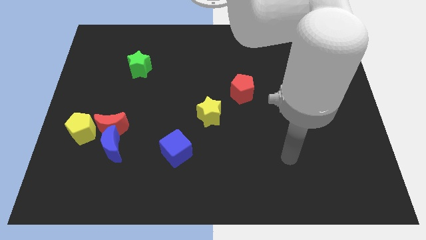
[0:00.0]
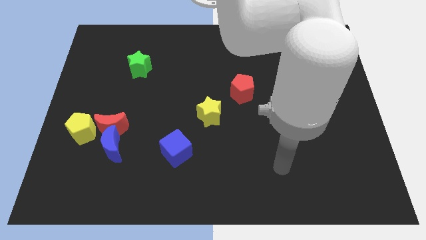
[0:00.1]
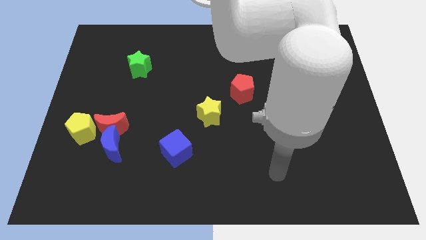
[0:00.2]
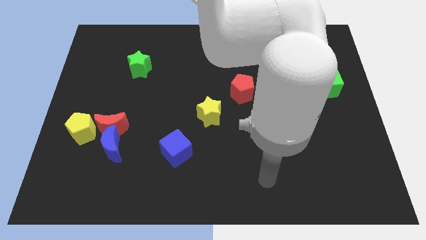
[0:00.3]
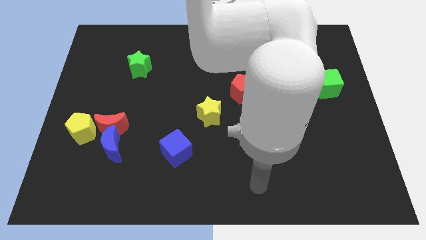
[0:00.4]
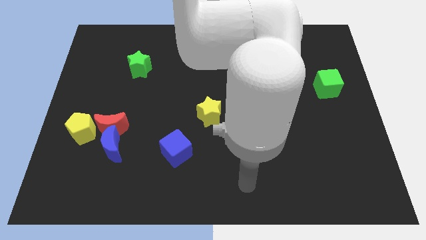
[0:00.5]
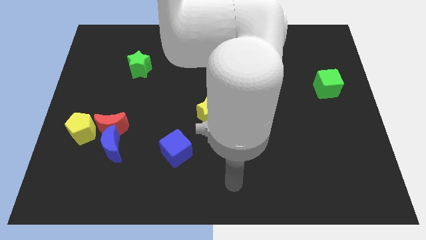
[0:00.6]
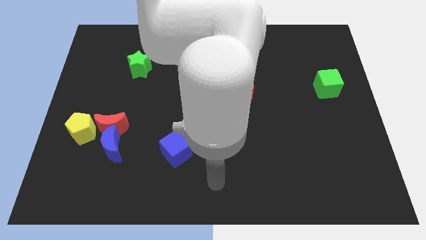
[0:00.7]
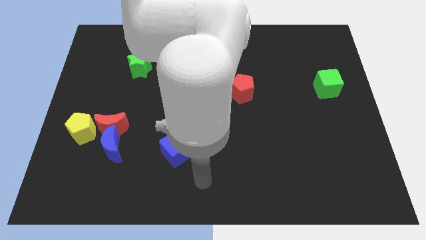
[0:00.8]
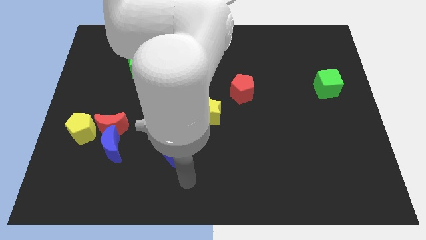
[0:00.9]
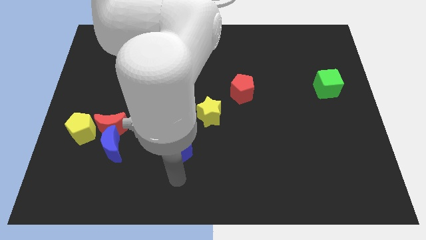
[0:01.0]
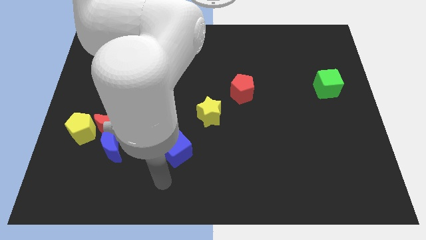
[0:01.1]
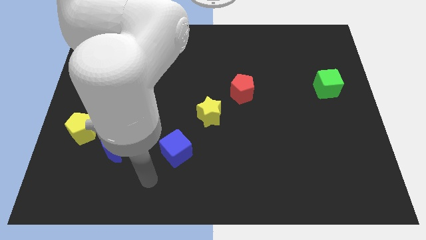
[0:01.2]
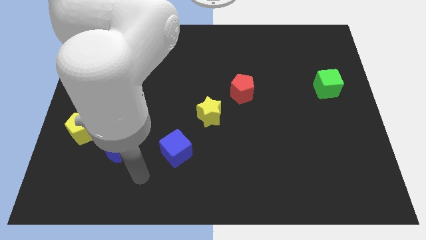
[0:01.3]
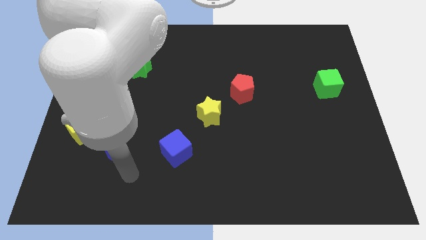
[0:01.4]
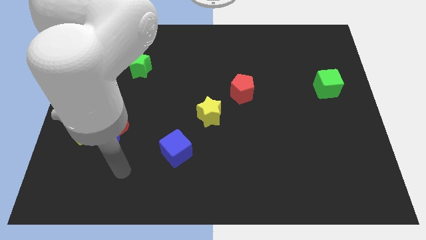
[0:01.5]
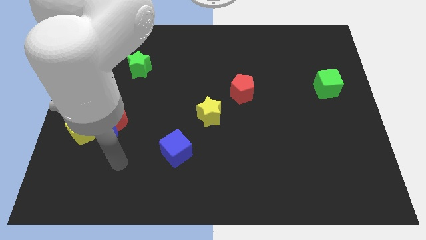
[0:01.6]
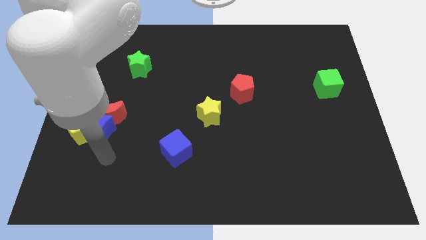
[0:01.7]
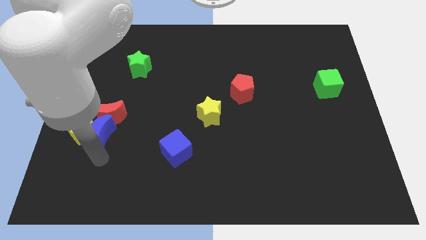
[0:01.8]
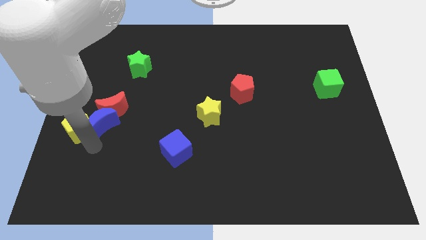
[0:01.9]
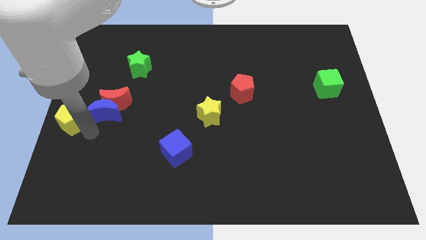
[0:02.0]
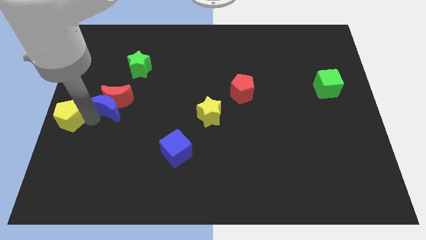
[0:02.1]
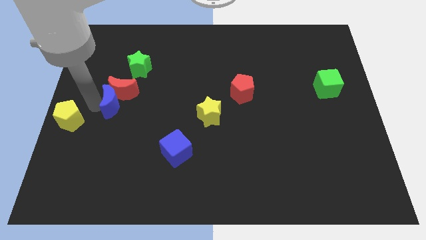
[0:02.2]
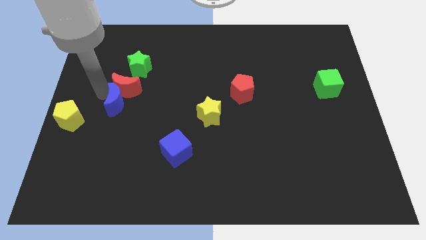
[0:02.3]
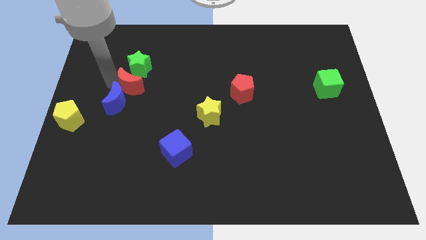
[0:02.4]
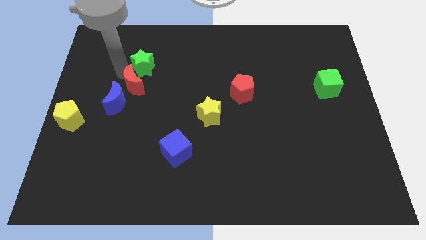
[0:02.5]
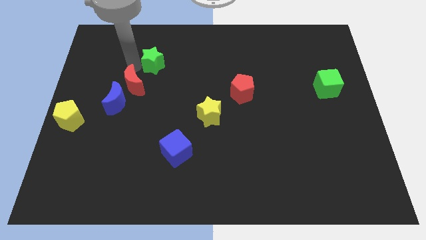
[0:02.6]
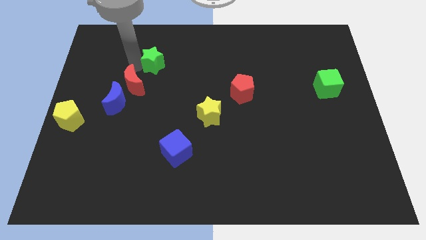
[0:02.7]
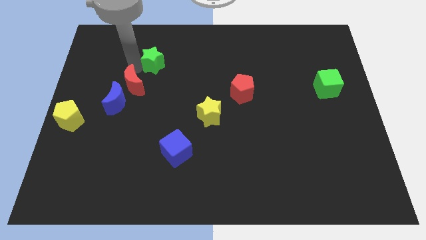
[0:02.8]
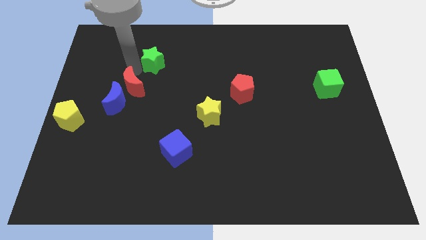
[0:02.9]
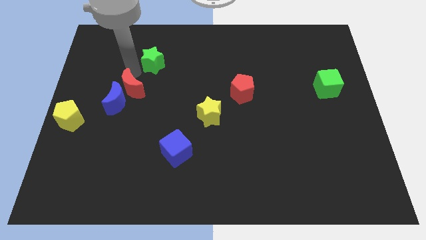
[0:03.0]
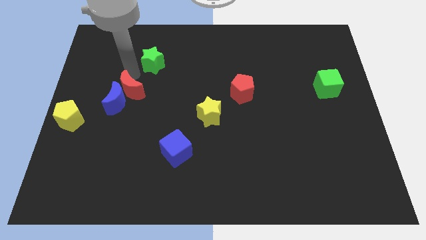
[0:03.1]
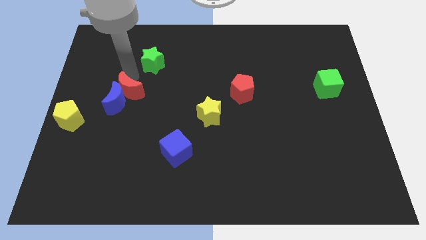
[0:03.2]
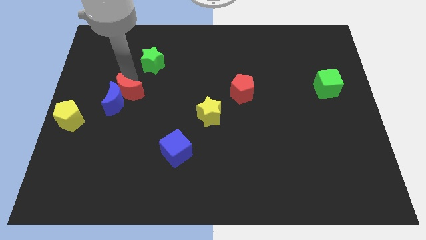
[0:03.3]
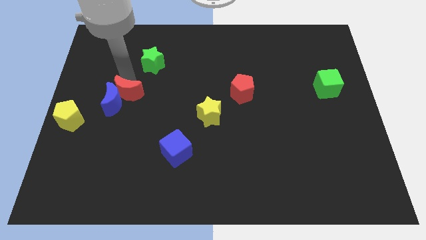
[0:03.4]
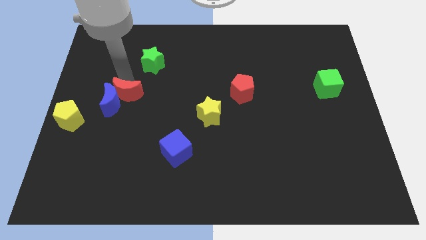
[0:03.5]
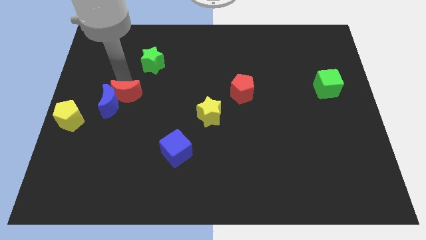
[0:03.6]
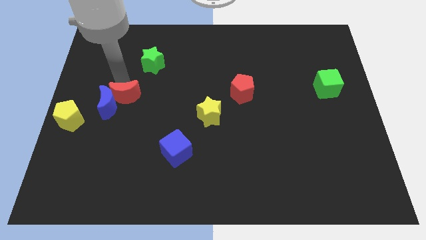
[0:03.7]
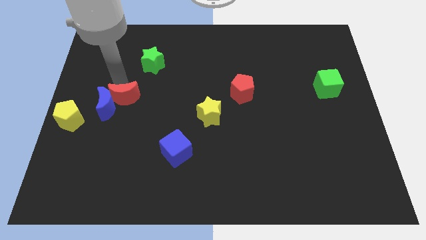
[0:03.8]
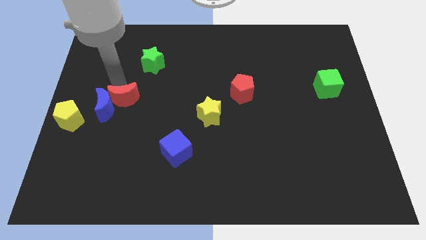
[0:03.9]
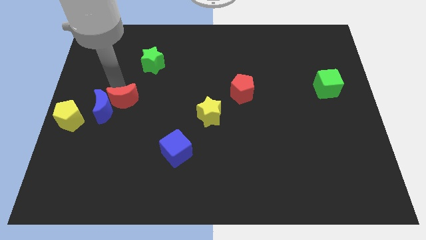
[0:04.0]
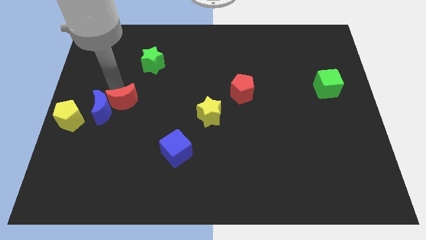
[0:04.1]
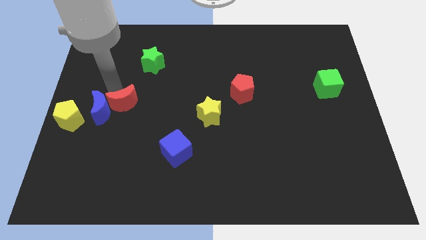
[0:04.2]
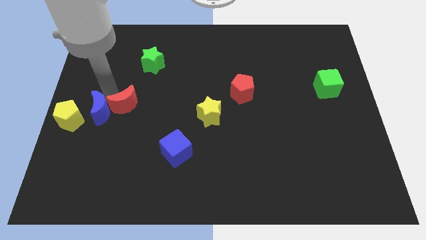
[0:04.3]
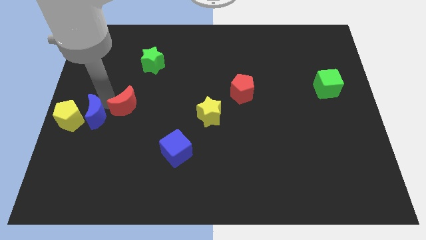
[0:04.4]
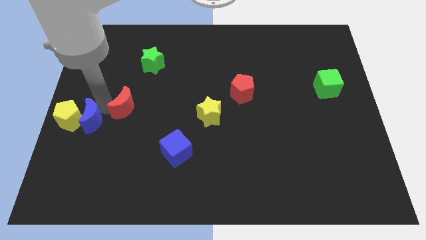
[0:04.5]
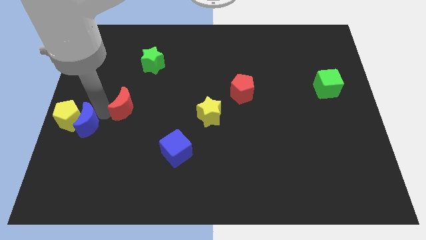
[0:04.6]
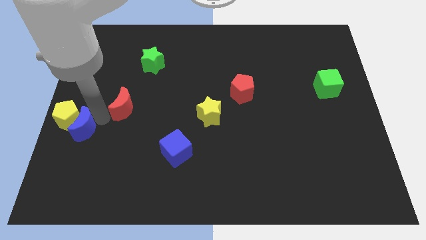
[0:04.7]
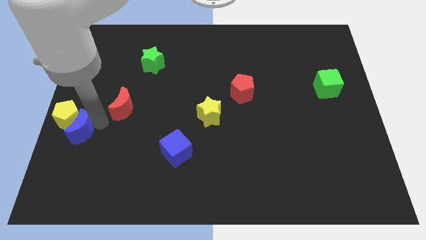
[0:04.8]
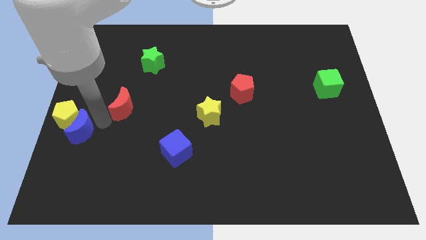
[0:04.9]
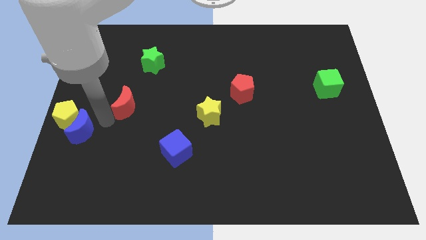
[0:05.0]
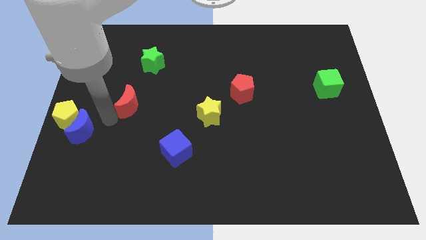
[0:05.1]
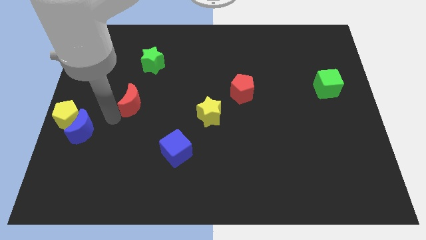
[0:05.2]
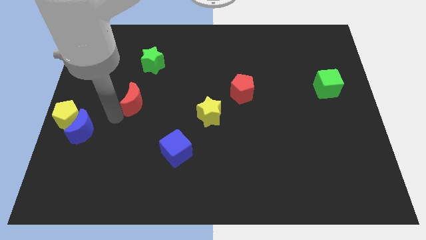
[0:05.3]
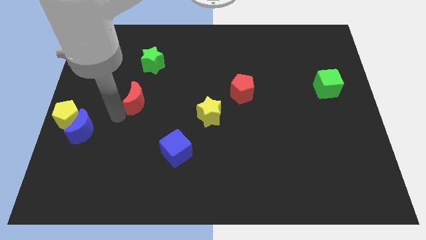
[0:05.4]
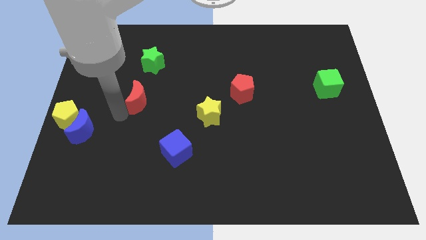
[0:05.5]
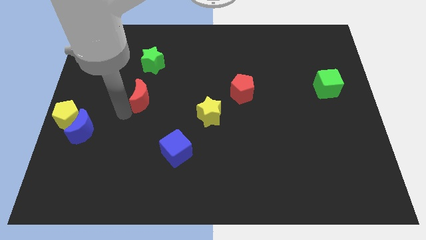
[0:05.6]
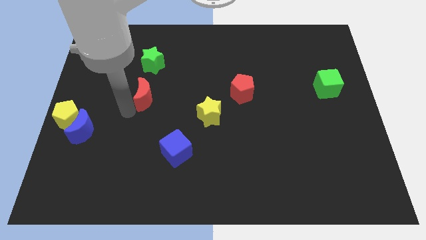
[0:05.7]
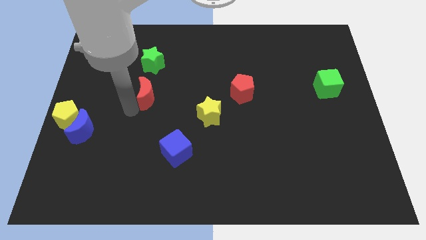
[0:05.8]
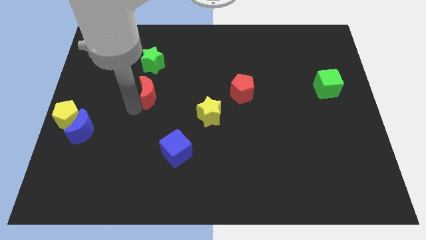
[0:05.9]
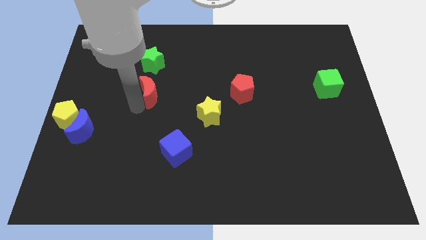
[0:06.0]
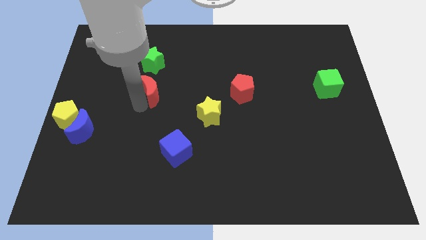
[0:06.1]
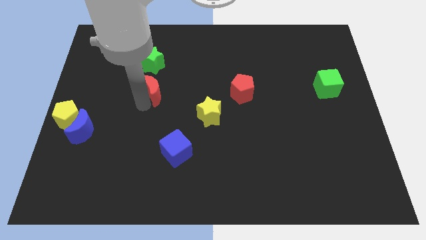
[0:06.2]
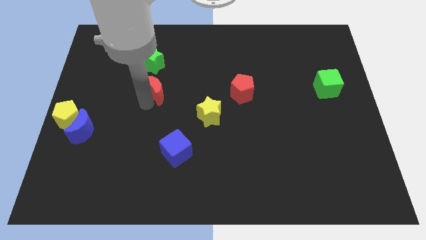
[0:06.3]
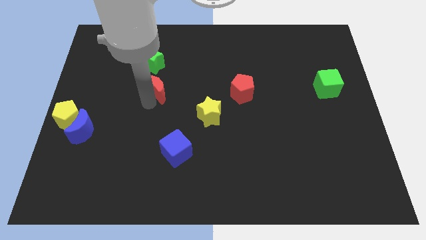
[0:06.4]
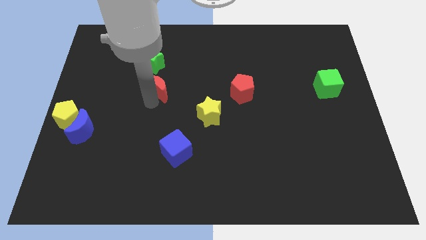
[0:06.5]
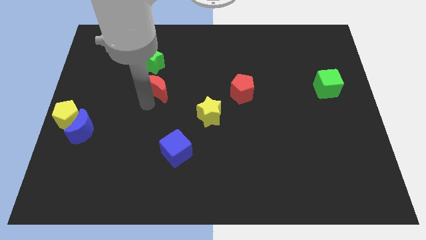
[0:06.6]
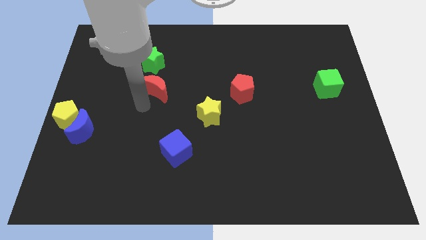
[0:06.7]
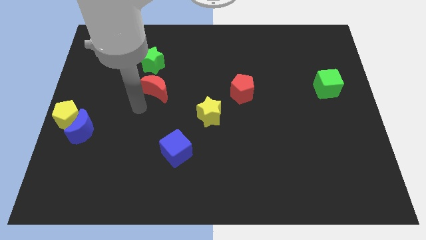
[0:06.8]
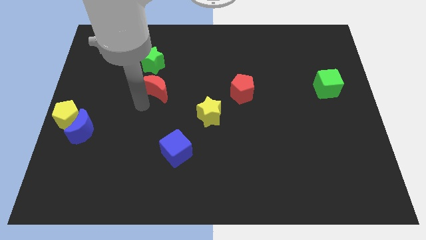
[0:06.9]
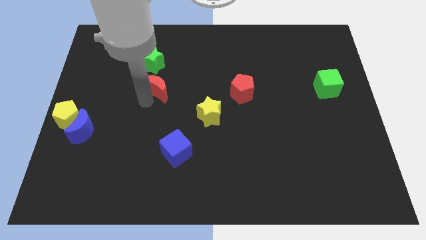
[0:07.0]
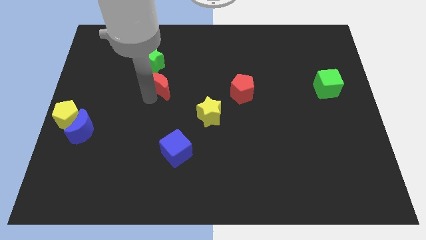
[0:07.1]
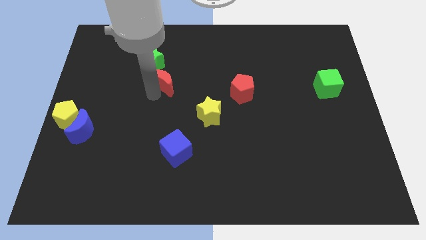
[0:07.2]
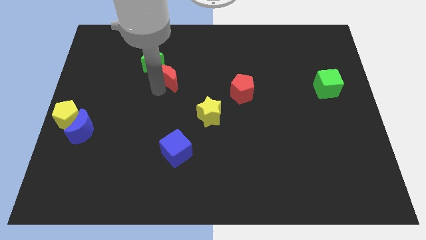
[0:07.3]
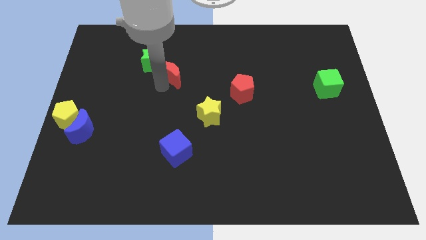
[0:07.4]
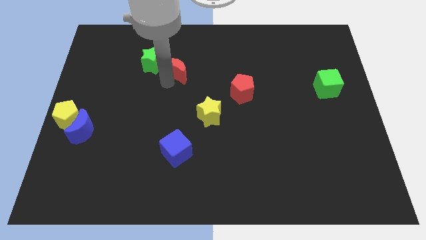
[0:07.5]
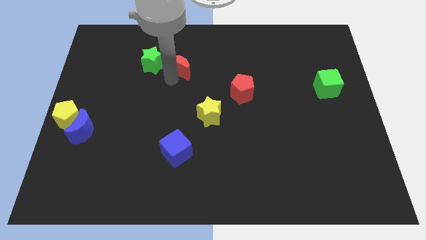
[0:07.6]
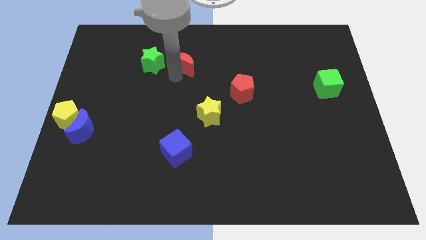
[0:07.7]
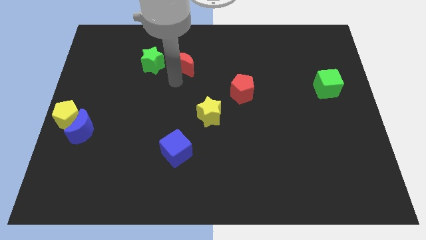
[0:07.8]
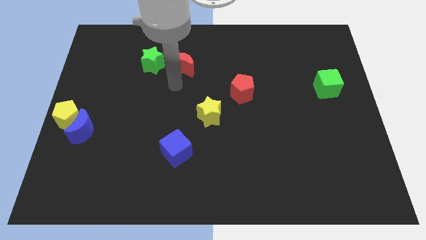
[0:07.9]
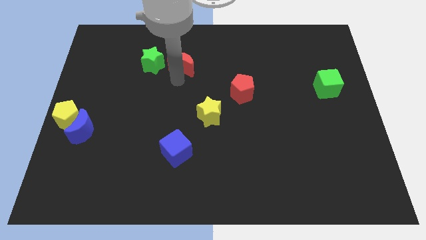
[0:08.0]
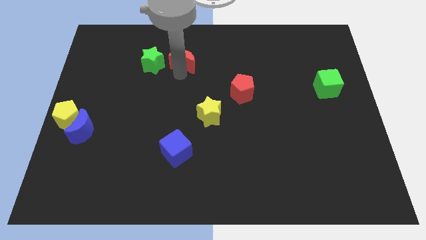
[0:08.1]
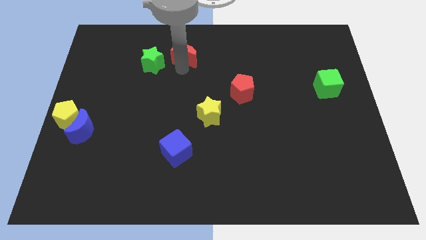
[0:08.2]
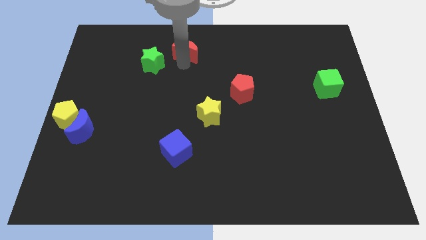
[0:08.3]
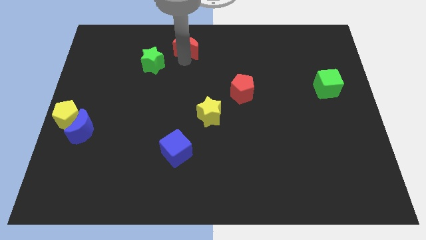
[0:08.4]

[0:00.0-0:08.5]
slide the red moon to the top side
